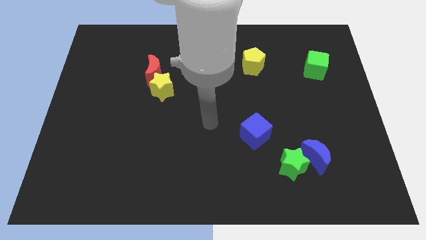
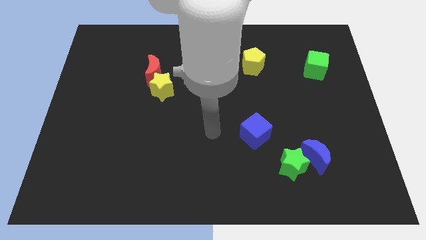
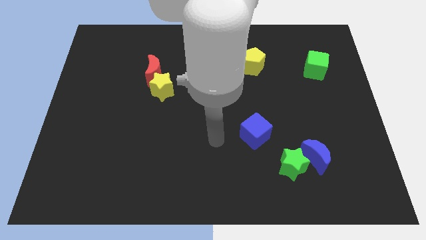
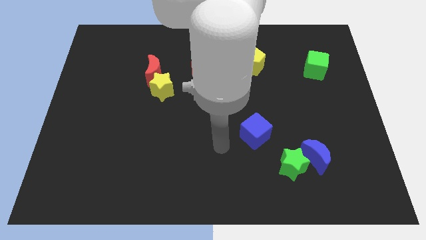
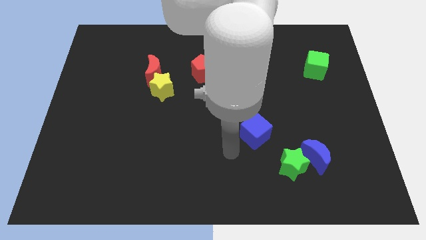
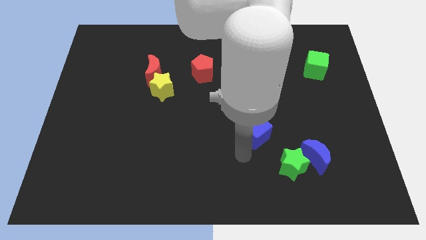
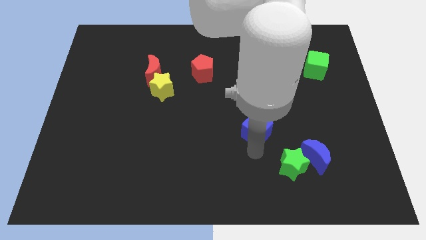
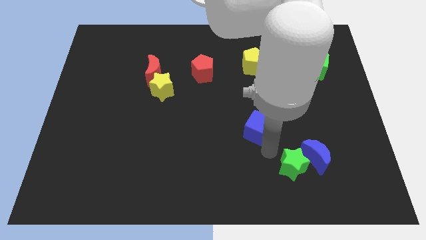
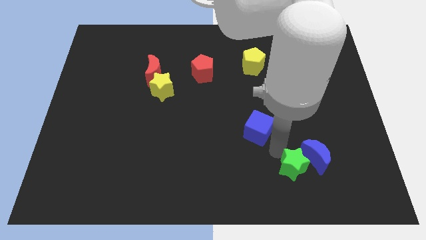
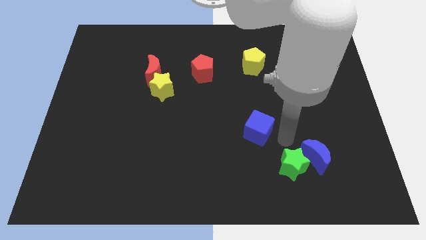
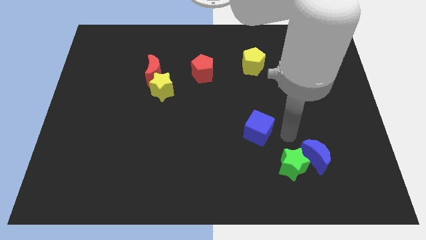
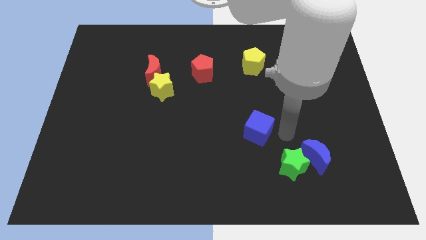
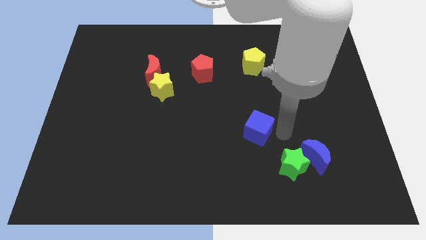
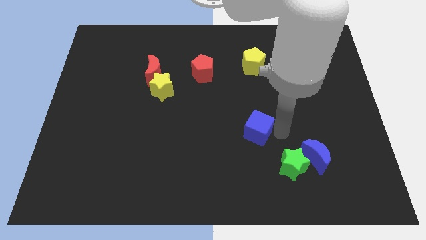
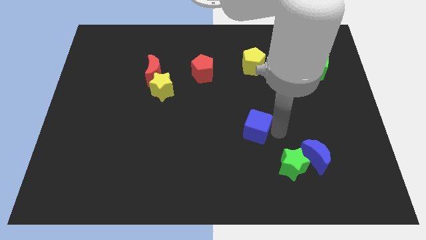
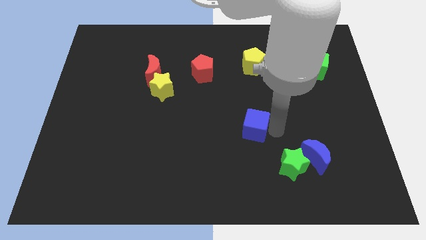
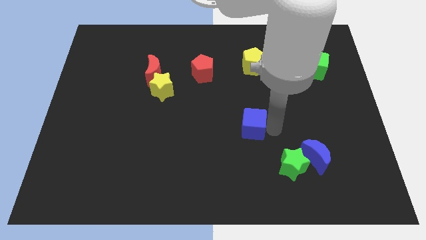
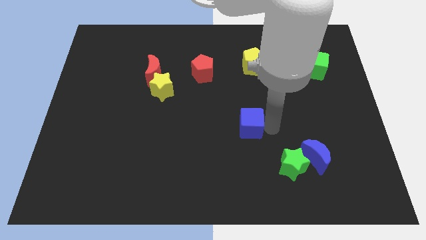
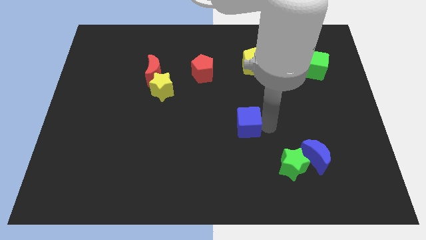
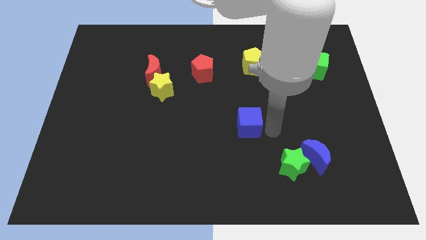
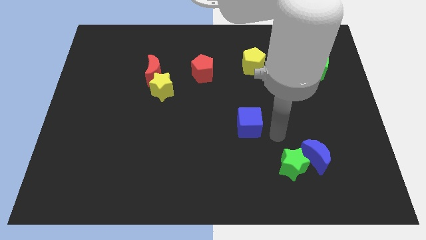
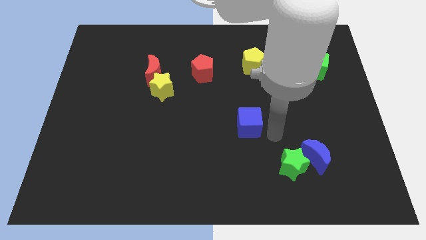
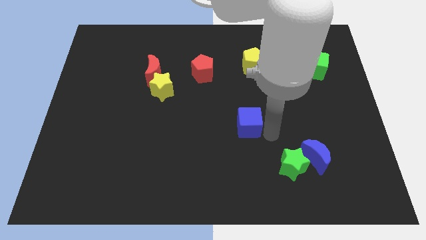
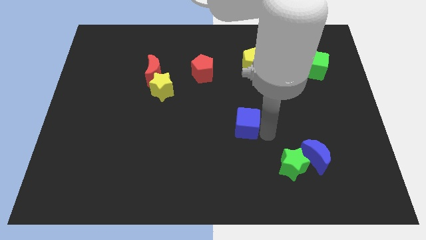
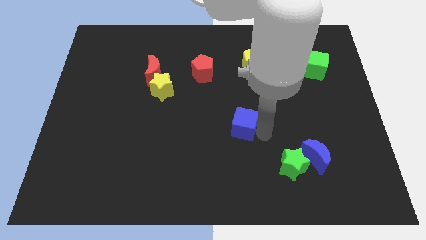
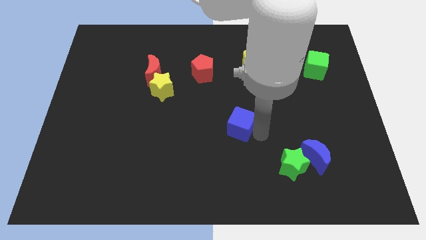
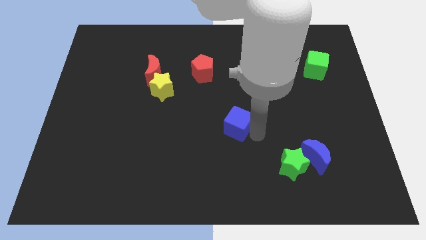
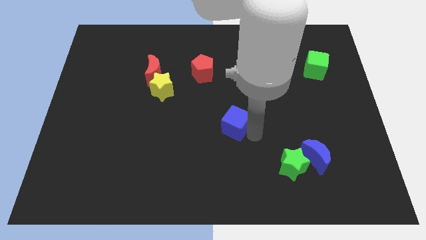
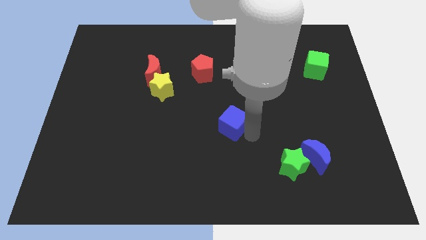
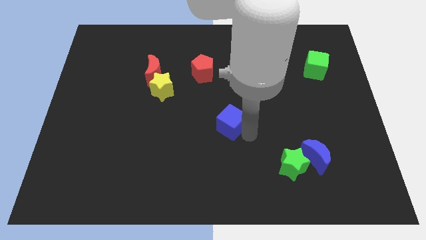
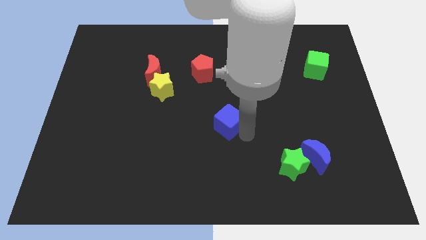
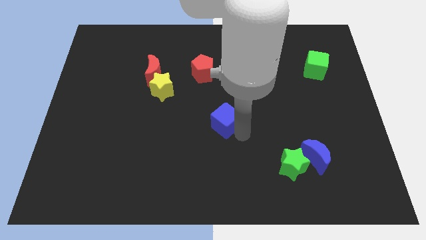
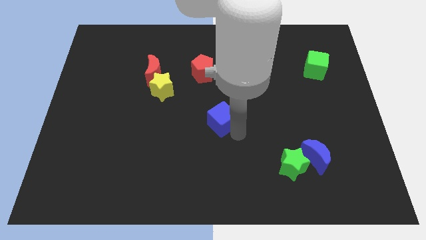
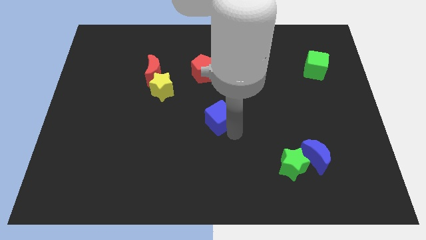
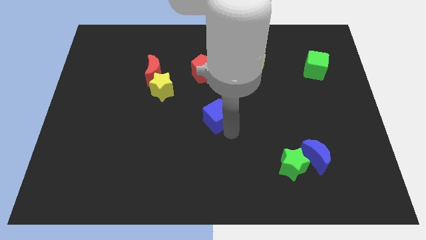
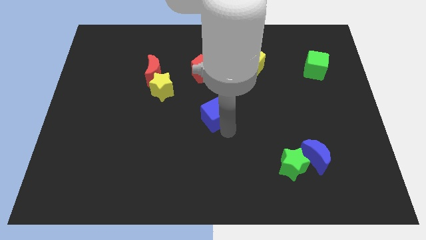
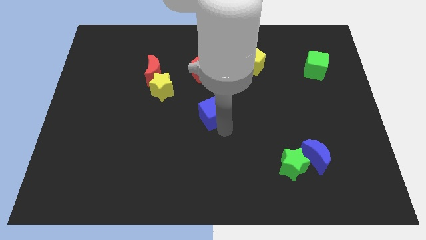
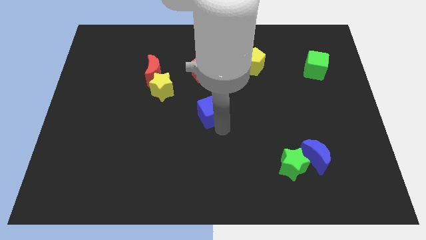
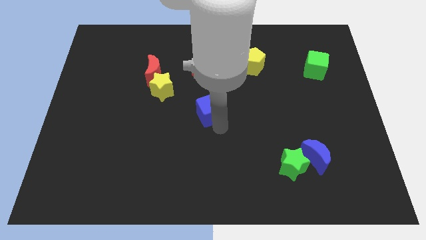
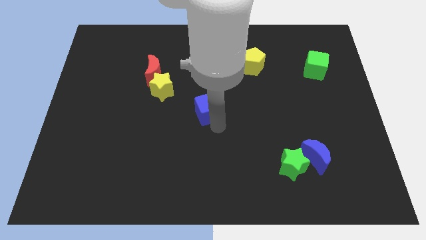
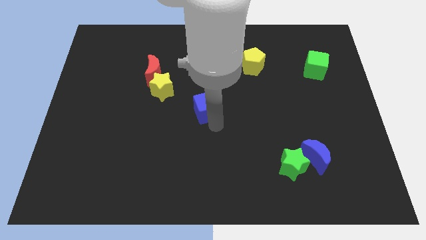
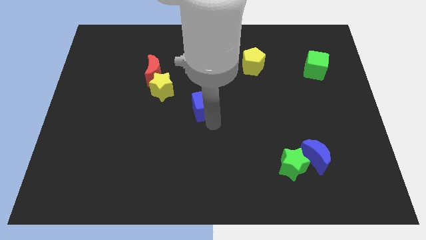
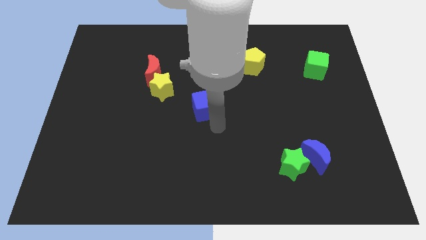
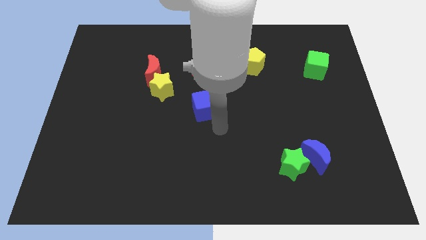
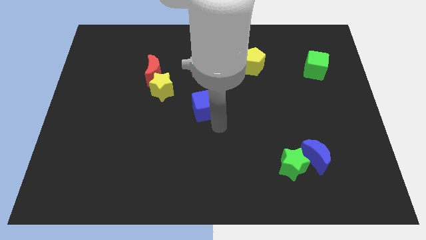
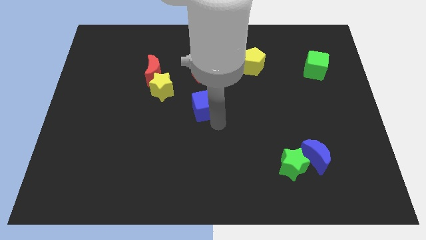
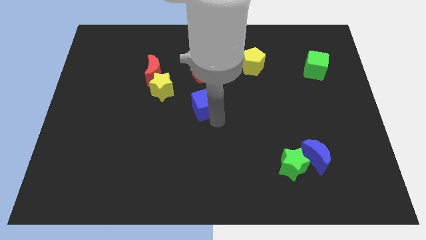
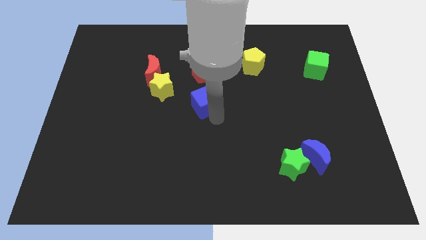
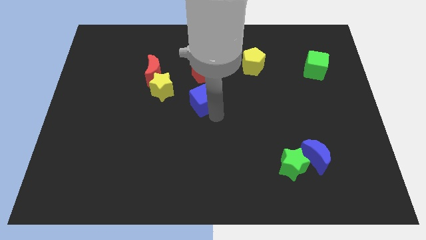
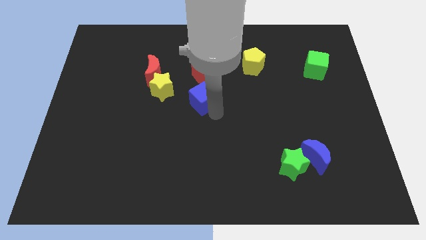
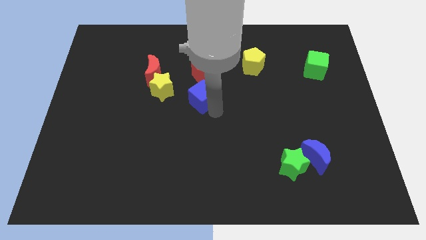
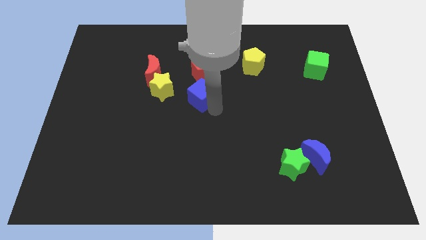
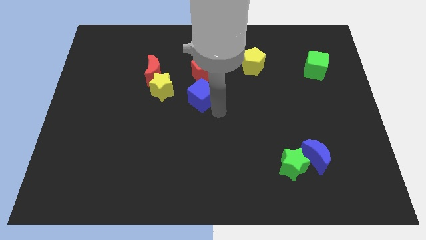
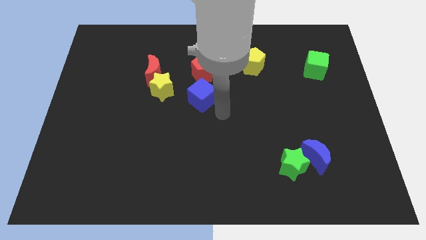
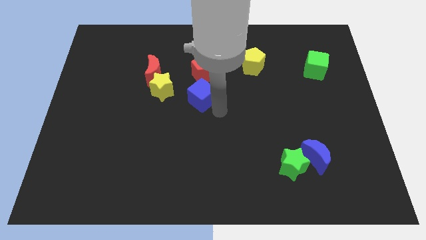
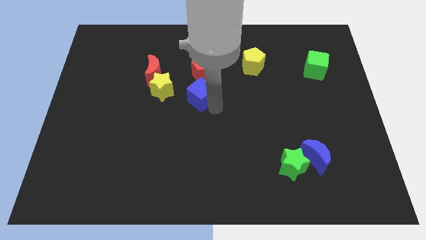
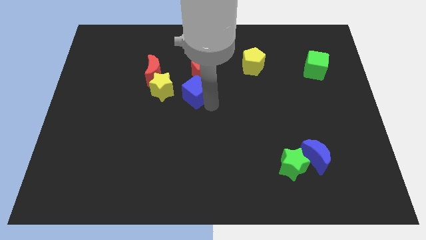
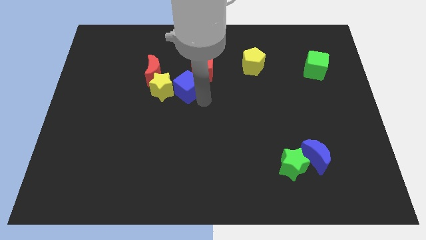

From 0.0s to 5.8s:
push the blue cube upwards and left

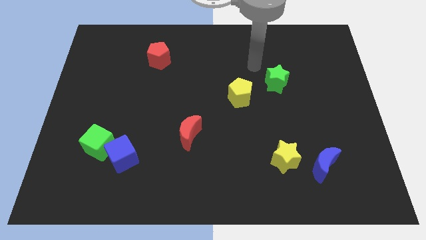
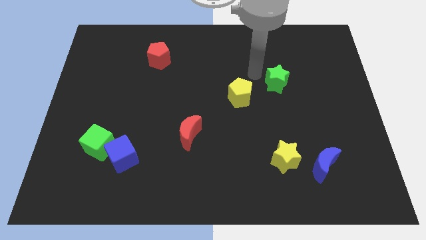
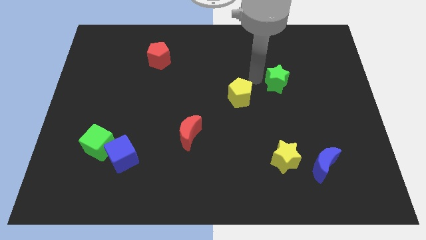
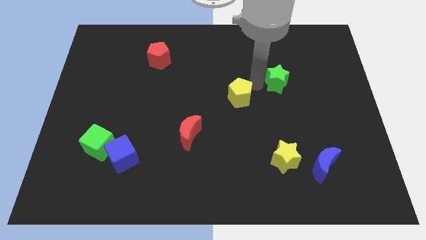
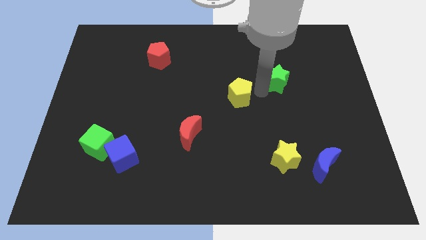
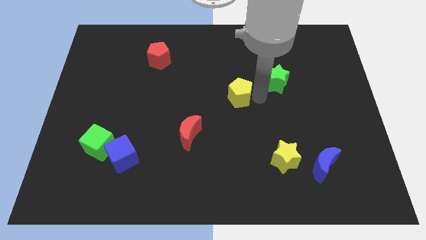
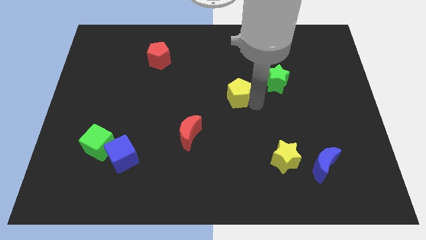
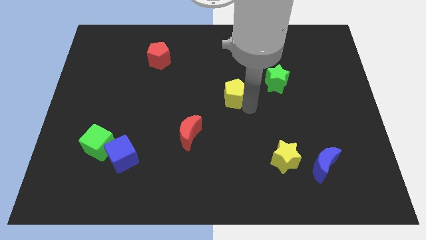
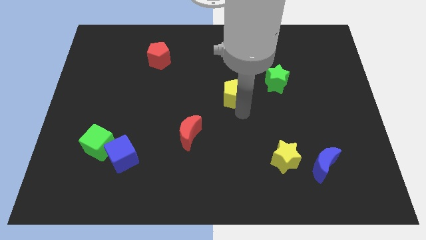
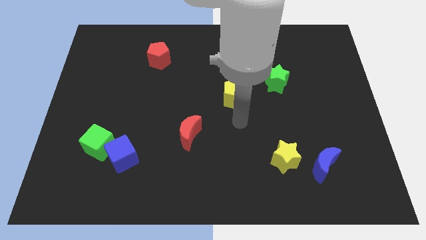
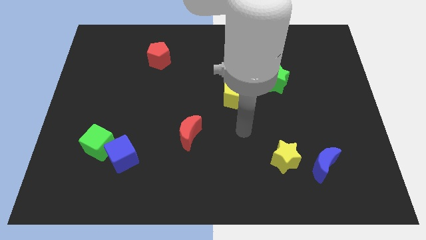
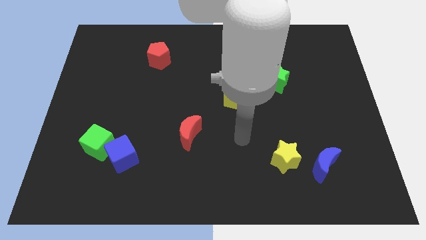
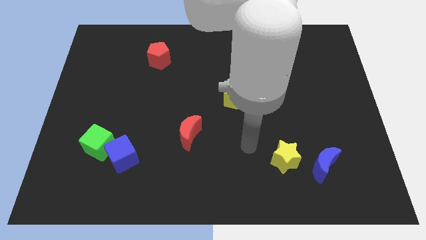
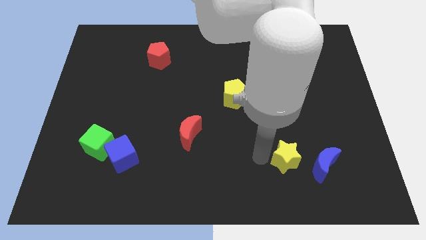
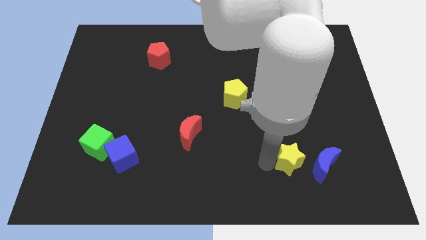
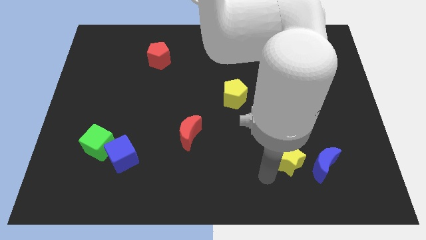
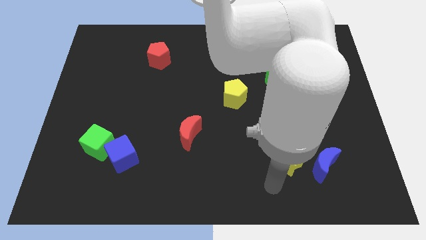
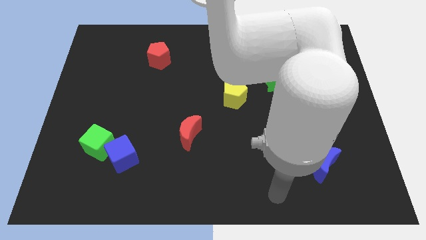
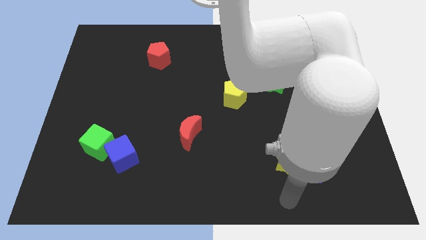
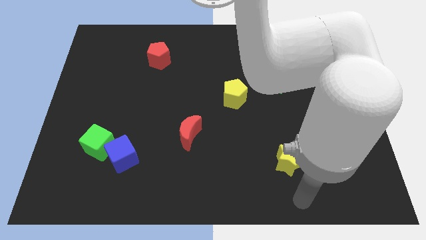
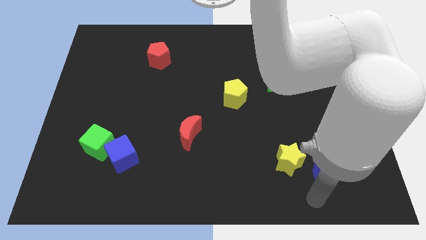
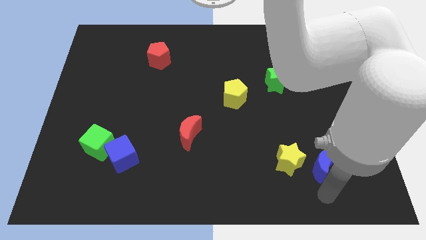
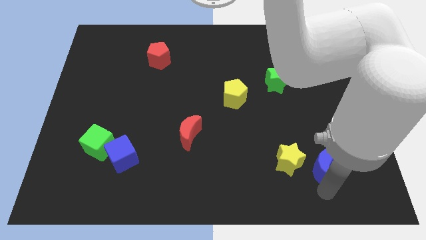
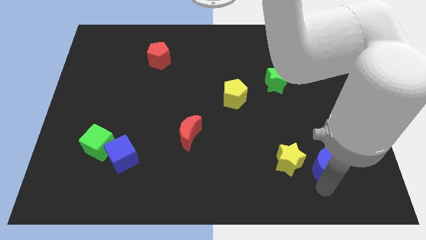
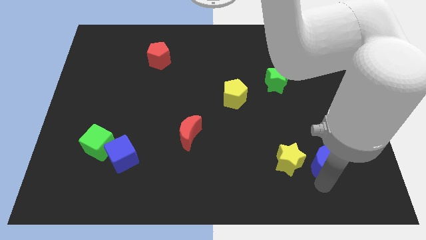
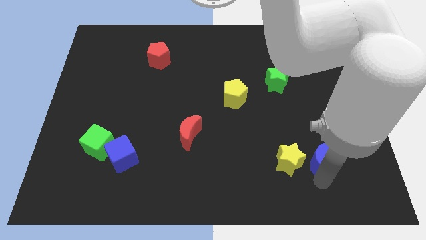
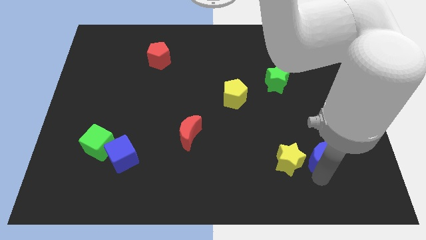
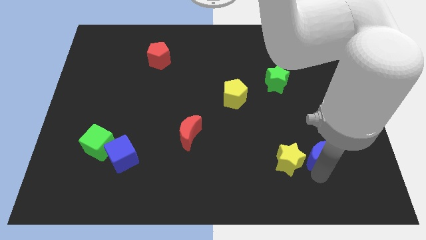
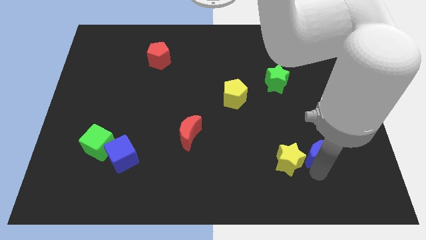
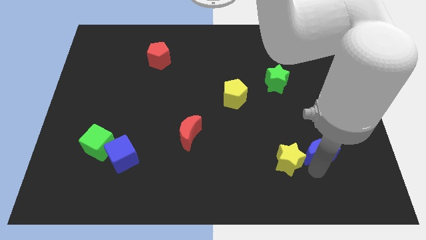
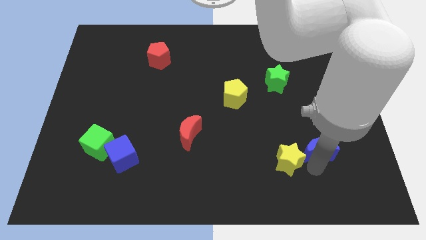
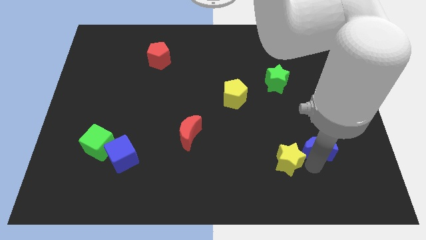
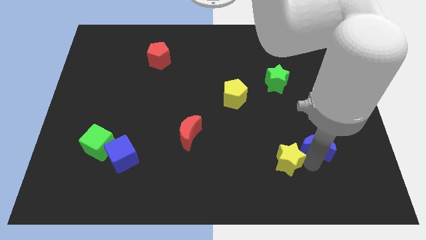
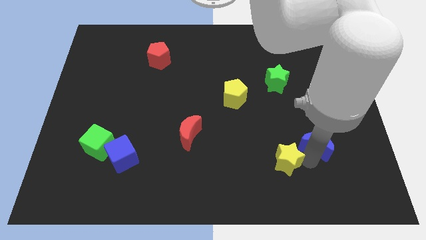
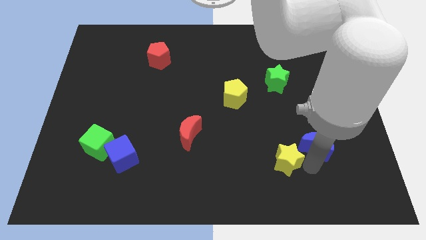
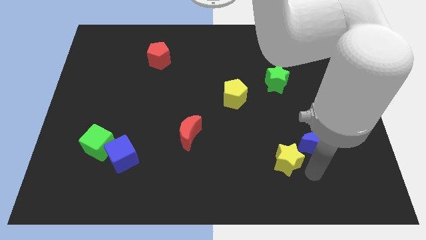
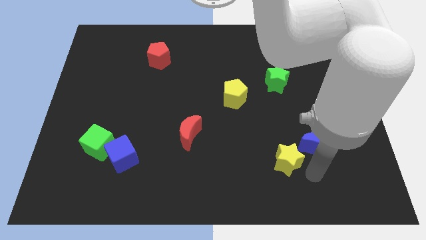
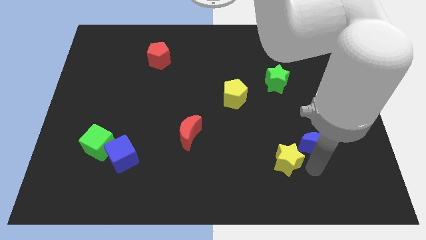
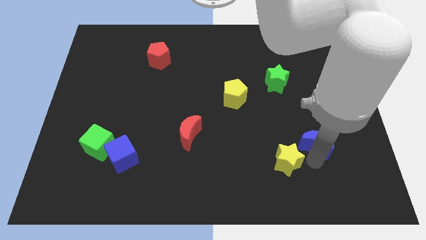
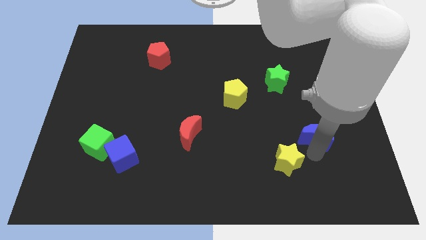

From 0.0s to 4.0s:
move the blue moon up a little bit
